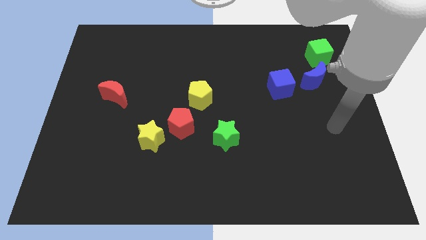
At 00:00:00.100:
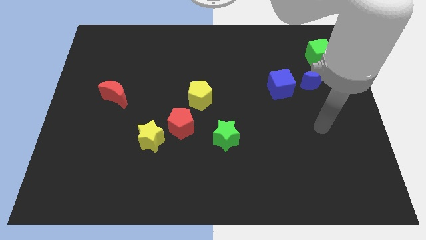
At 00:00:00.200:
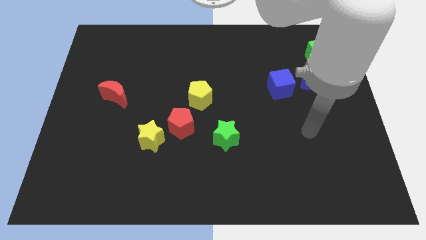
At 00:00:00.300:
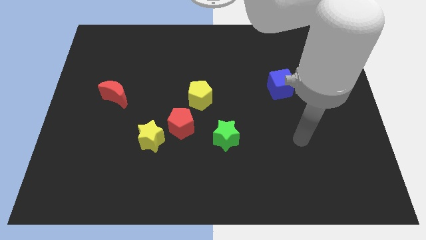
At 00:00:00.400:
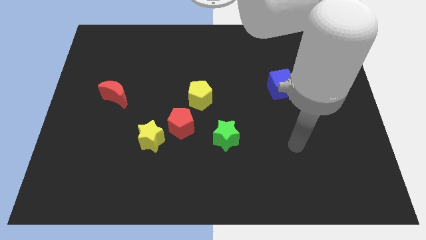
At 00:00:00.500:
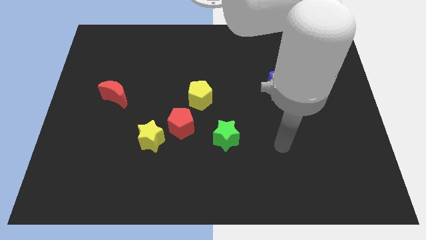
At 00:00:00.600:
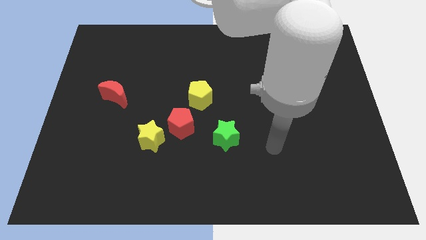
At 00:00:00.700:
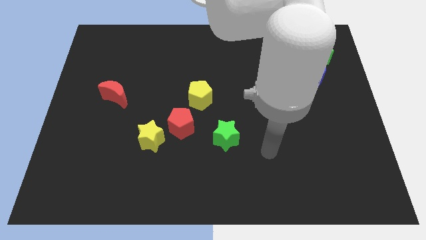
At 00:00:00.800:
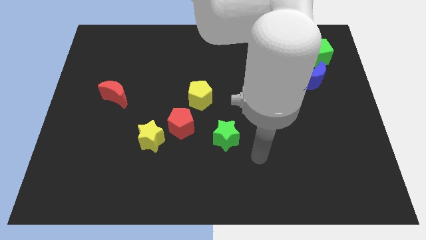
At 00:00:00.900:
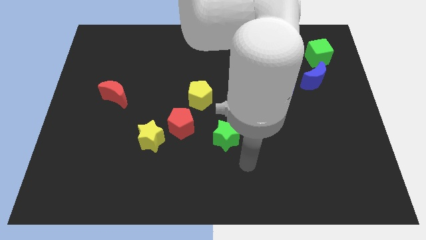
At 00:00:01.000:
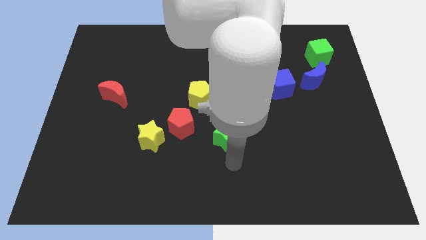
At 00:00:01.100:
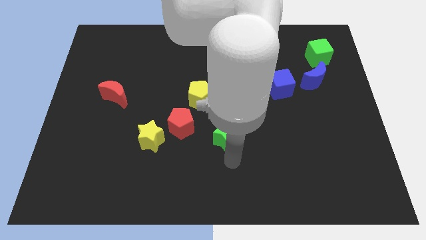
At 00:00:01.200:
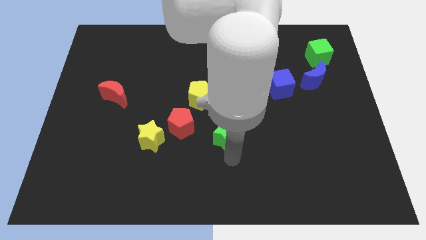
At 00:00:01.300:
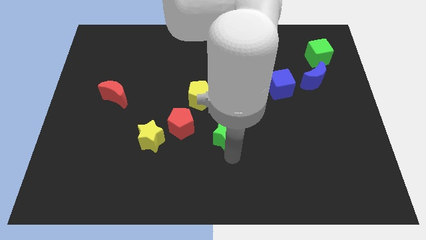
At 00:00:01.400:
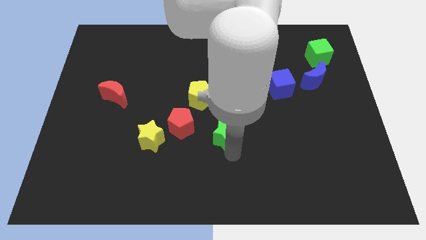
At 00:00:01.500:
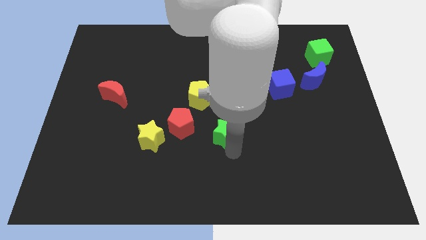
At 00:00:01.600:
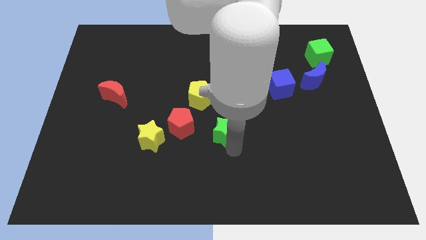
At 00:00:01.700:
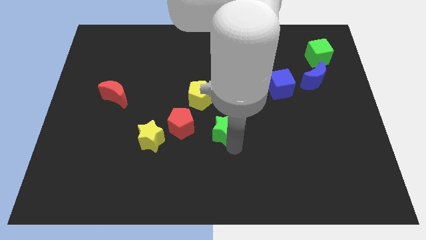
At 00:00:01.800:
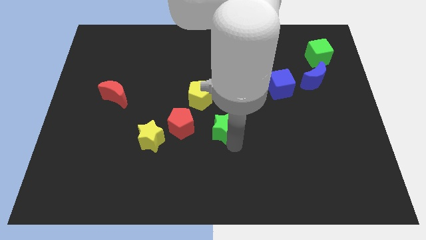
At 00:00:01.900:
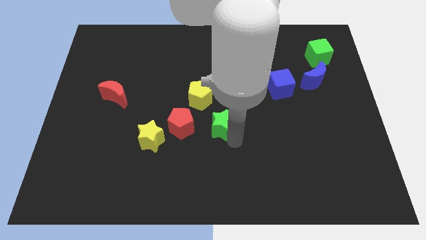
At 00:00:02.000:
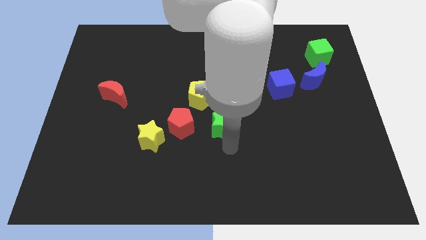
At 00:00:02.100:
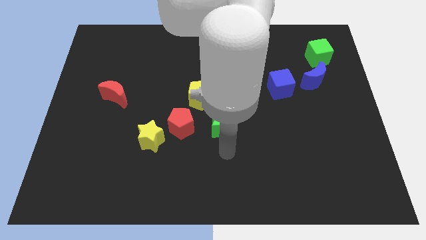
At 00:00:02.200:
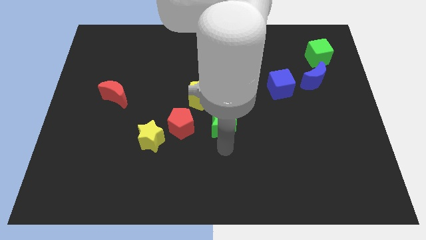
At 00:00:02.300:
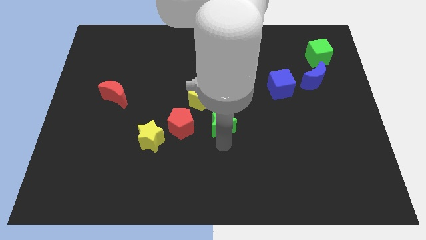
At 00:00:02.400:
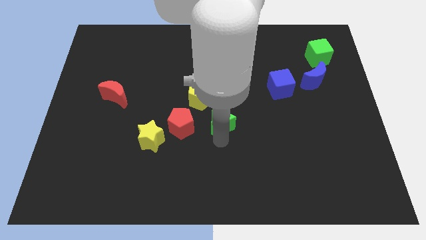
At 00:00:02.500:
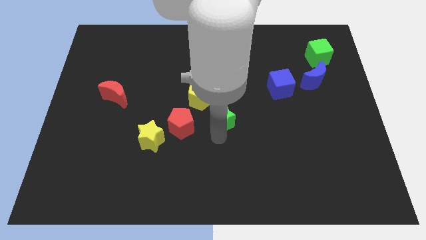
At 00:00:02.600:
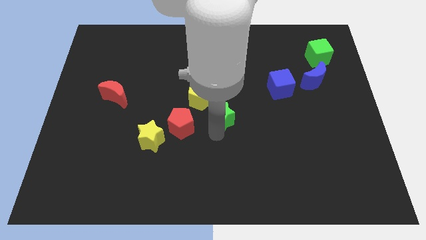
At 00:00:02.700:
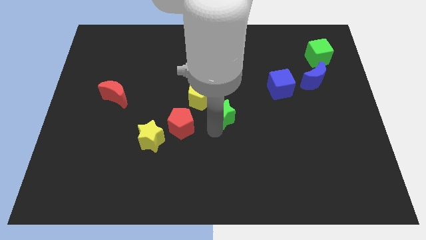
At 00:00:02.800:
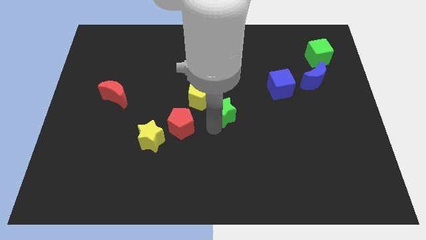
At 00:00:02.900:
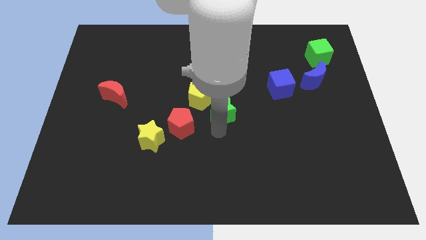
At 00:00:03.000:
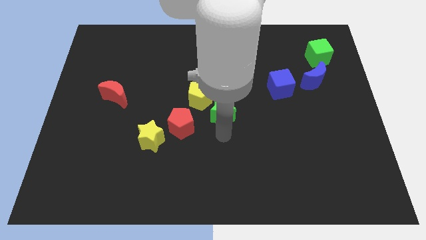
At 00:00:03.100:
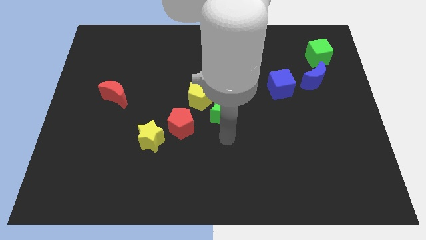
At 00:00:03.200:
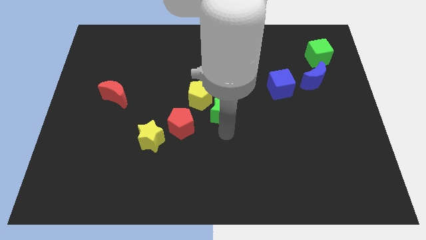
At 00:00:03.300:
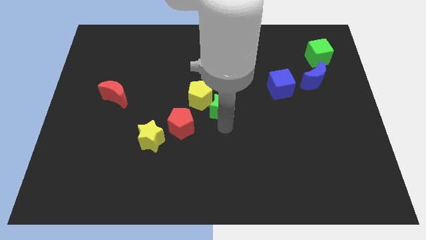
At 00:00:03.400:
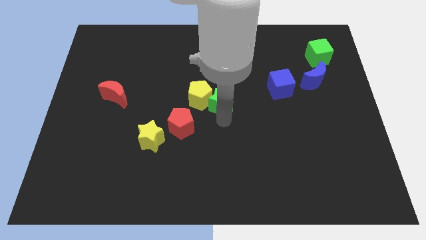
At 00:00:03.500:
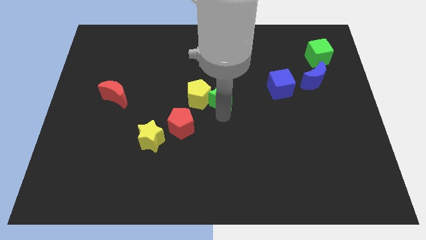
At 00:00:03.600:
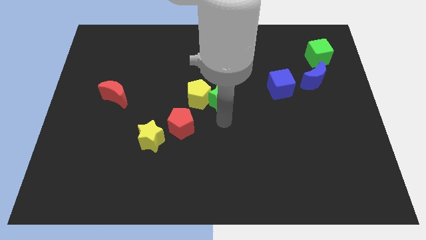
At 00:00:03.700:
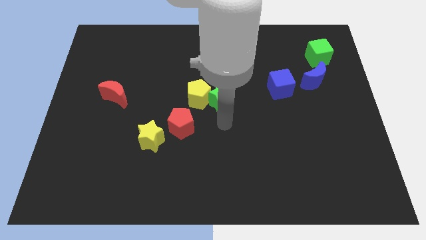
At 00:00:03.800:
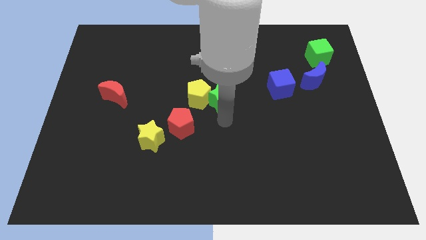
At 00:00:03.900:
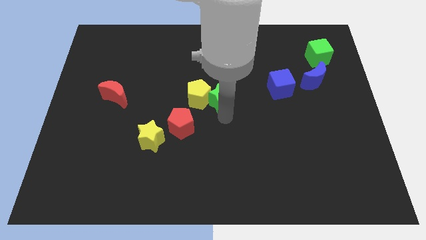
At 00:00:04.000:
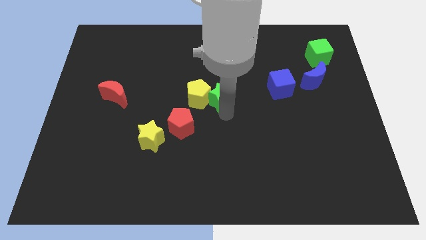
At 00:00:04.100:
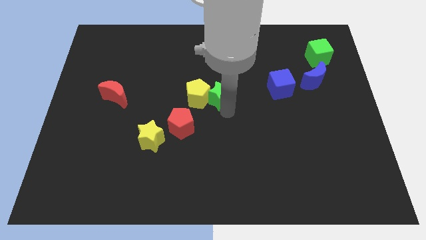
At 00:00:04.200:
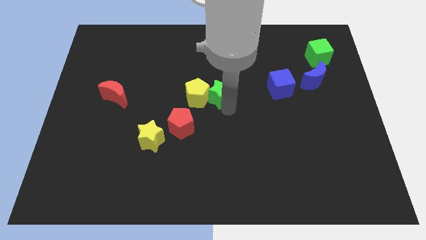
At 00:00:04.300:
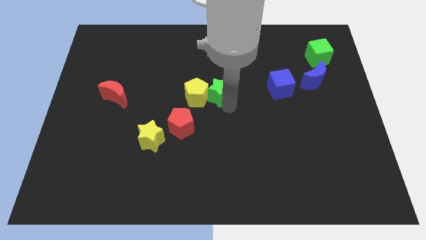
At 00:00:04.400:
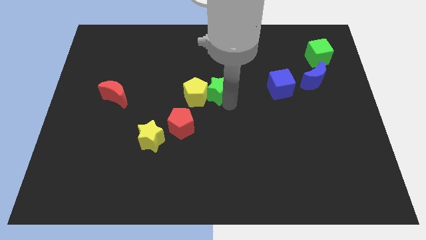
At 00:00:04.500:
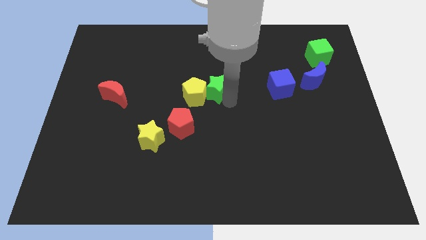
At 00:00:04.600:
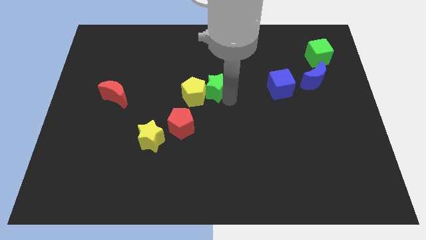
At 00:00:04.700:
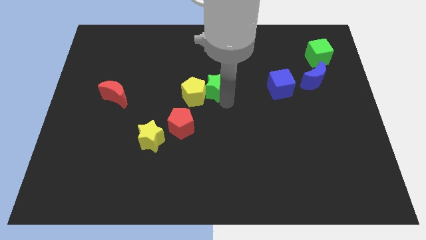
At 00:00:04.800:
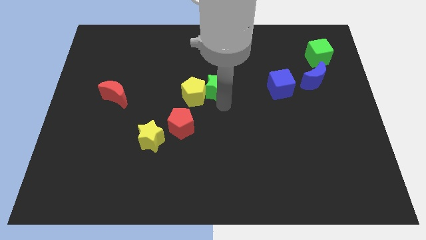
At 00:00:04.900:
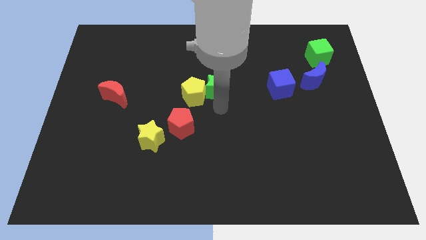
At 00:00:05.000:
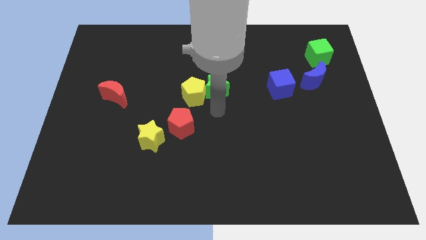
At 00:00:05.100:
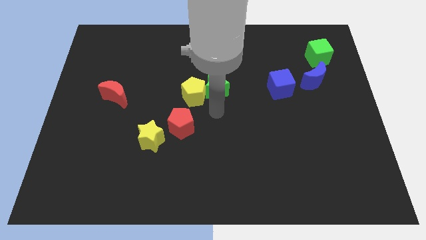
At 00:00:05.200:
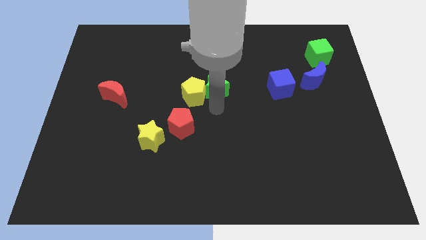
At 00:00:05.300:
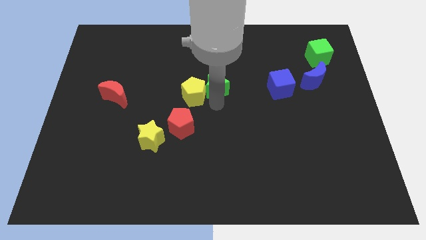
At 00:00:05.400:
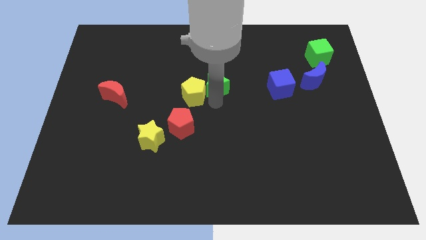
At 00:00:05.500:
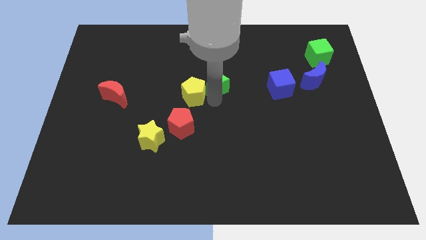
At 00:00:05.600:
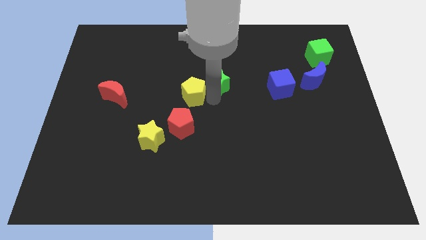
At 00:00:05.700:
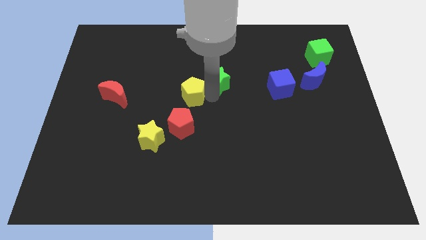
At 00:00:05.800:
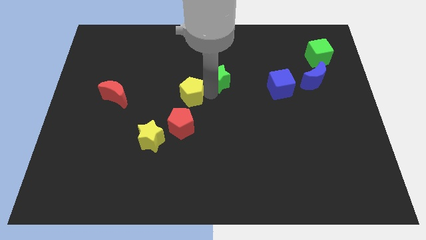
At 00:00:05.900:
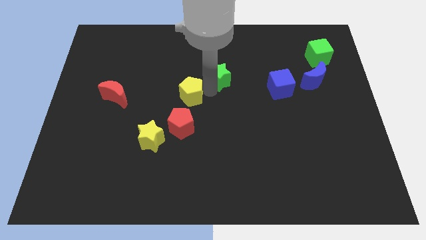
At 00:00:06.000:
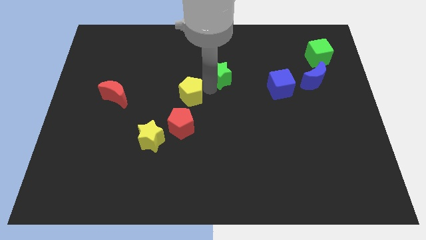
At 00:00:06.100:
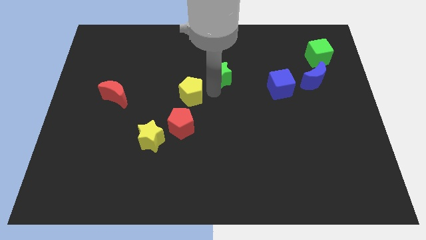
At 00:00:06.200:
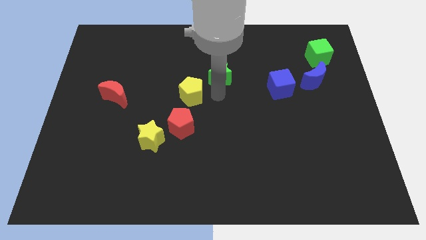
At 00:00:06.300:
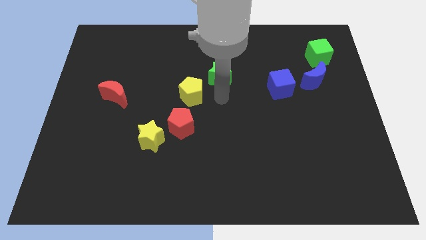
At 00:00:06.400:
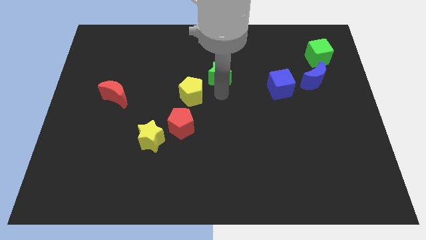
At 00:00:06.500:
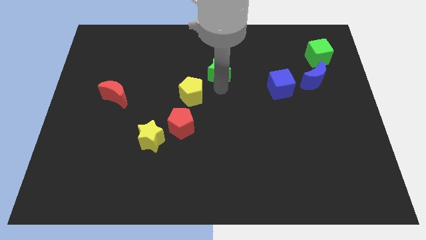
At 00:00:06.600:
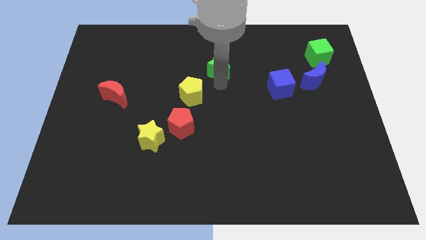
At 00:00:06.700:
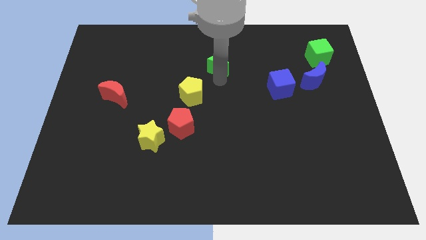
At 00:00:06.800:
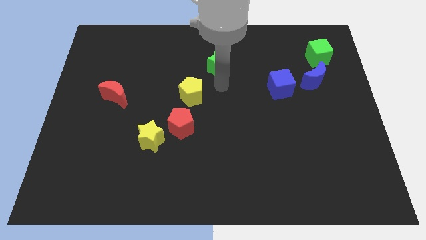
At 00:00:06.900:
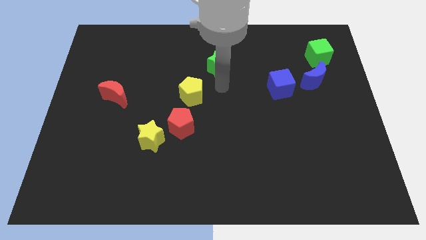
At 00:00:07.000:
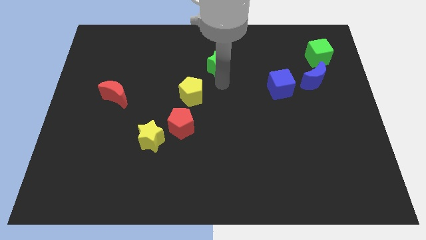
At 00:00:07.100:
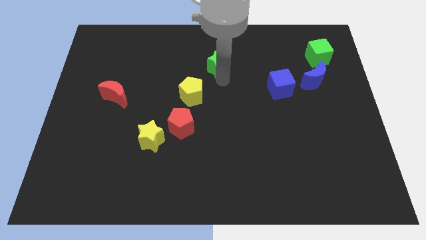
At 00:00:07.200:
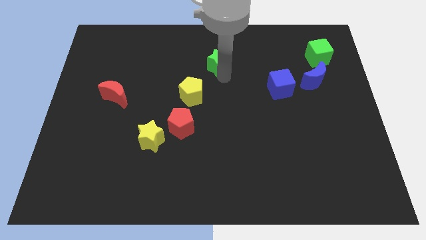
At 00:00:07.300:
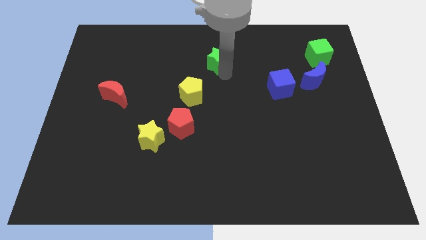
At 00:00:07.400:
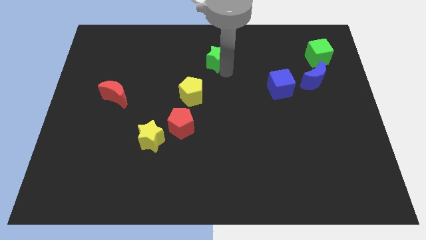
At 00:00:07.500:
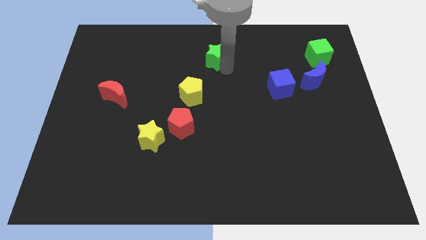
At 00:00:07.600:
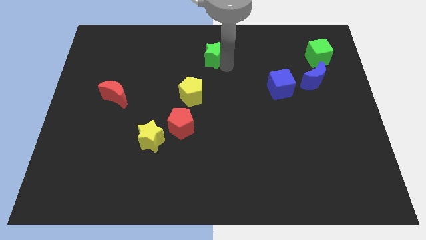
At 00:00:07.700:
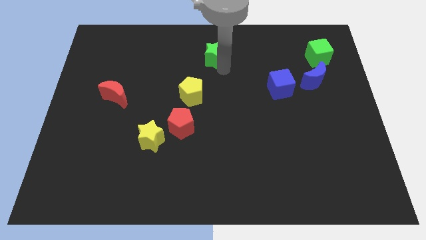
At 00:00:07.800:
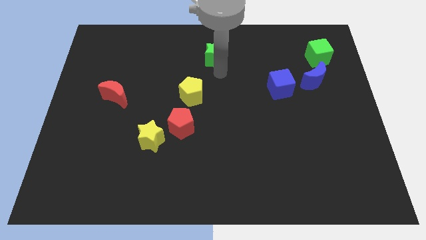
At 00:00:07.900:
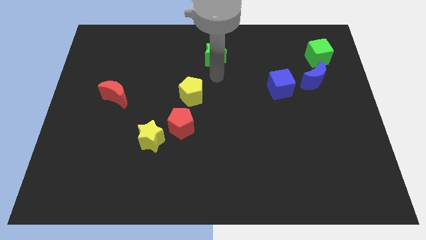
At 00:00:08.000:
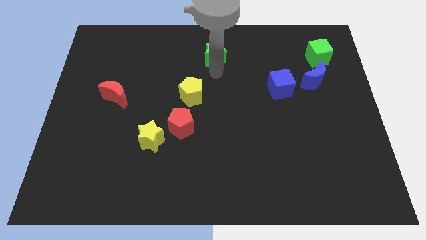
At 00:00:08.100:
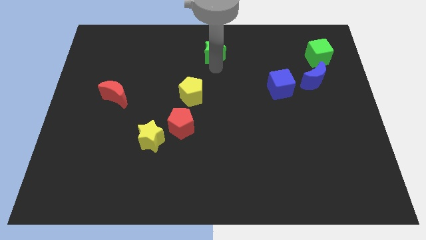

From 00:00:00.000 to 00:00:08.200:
move the green star to the top side

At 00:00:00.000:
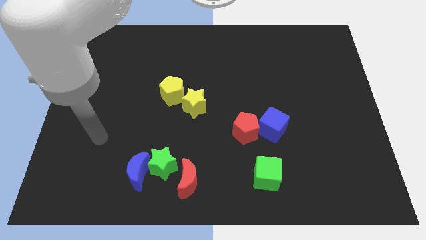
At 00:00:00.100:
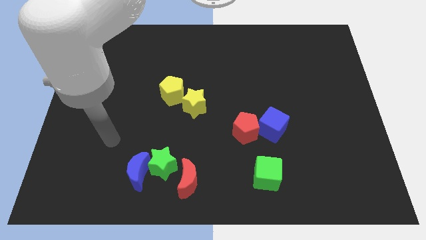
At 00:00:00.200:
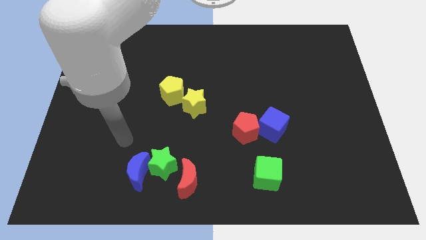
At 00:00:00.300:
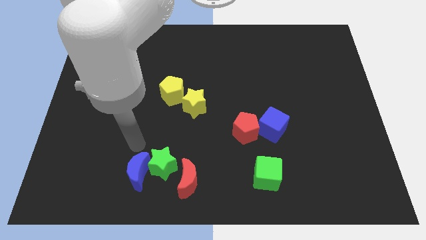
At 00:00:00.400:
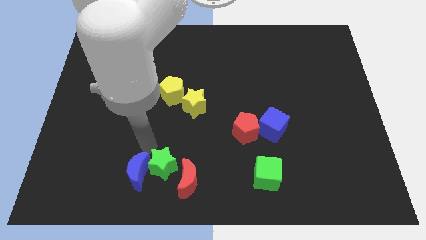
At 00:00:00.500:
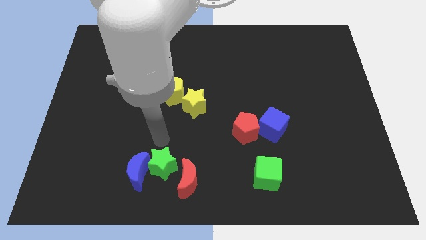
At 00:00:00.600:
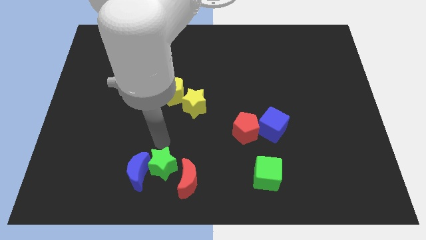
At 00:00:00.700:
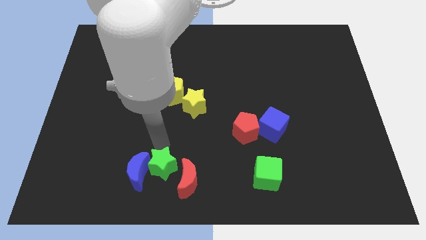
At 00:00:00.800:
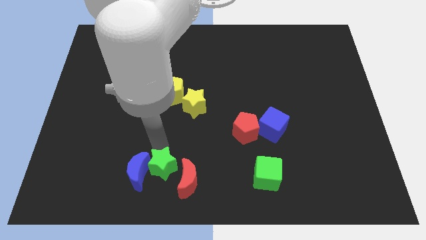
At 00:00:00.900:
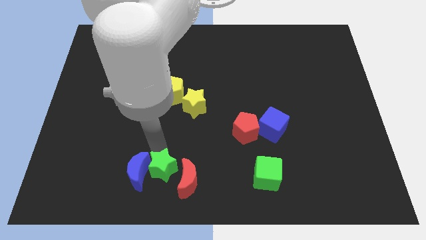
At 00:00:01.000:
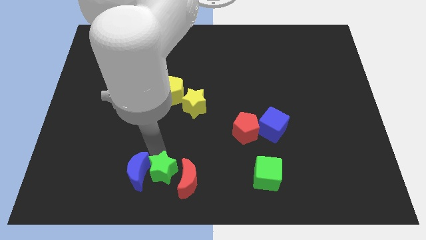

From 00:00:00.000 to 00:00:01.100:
push the green star to the bottom side
